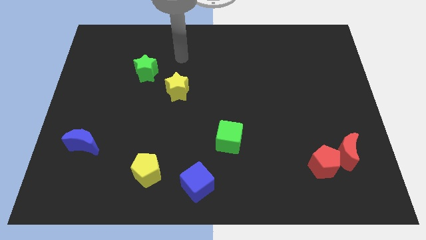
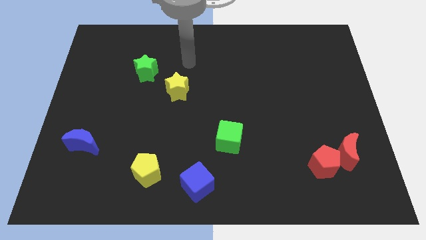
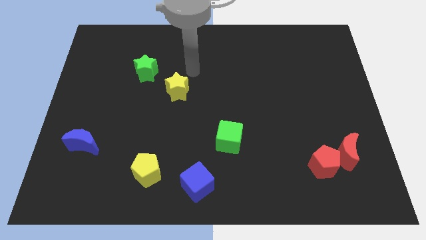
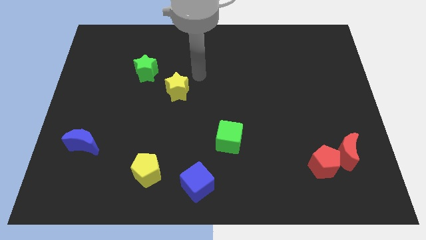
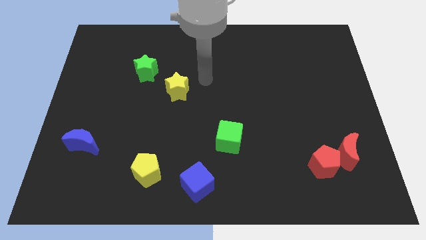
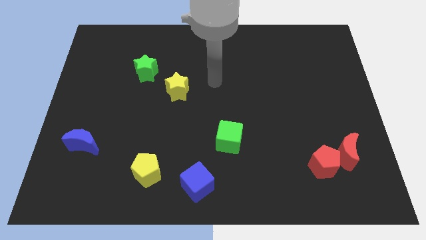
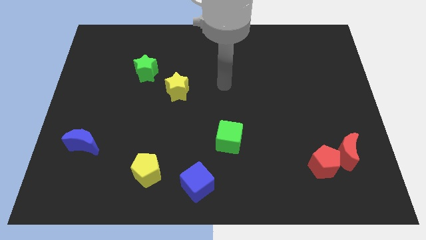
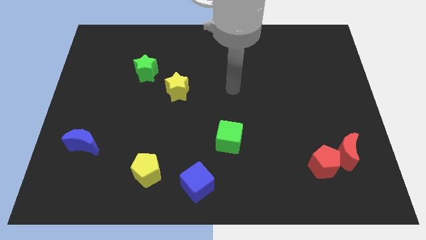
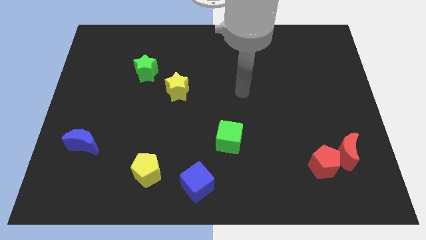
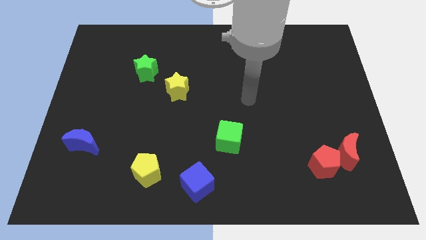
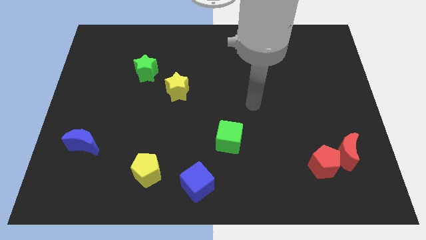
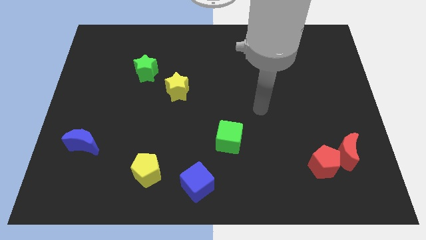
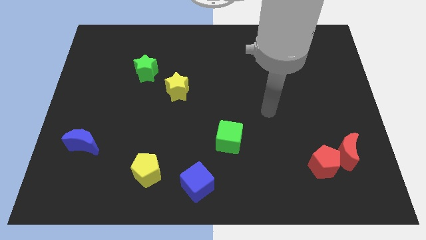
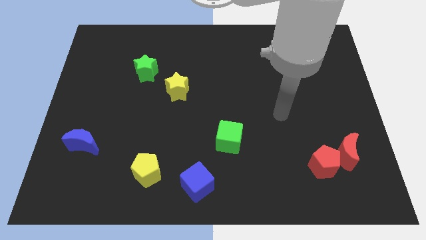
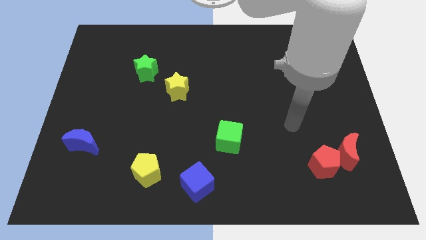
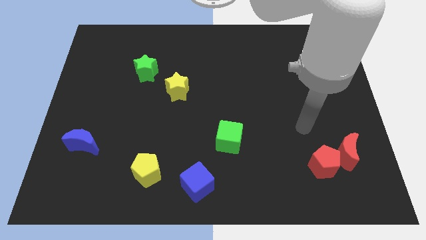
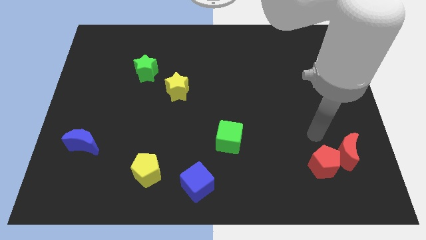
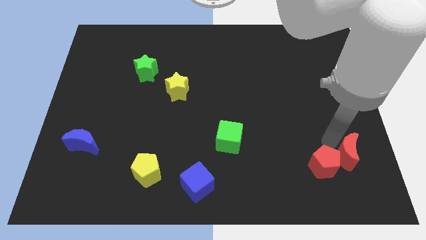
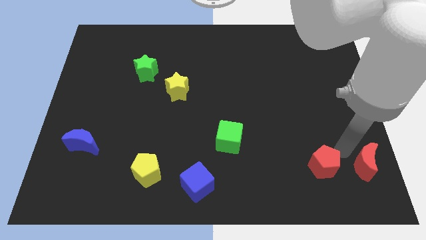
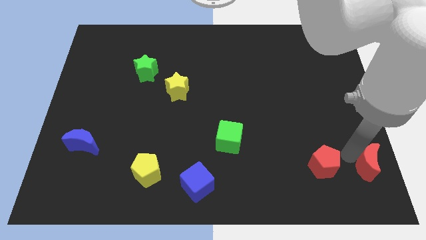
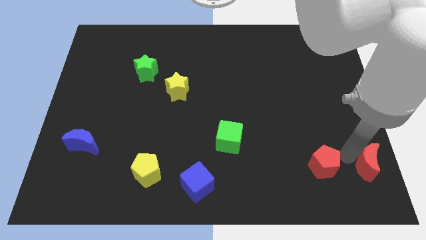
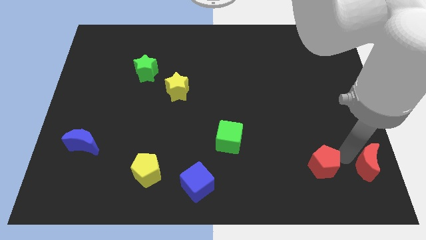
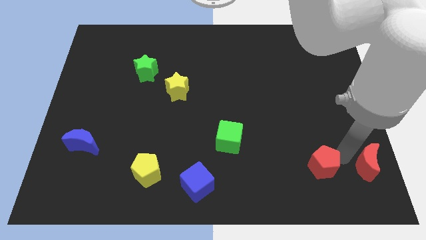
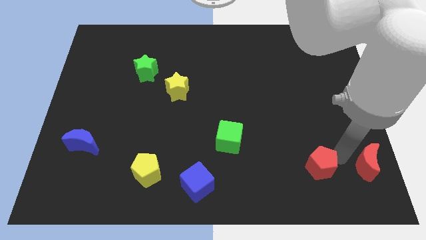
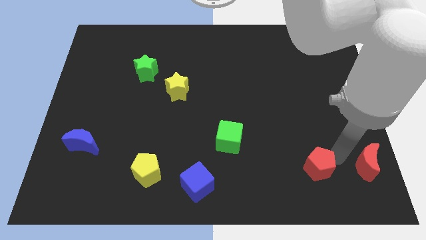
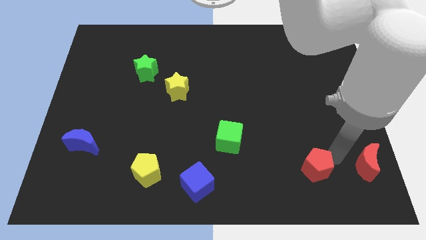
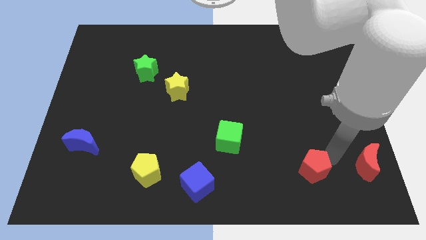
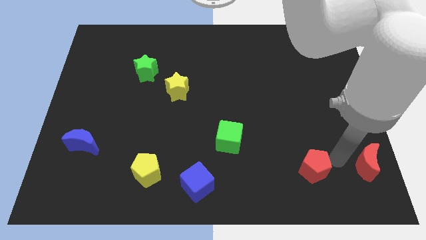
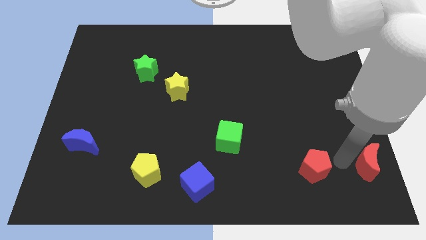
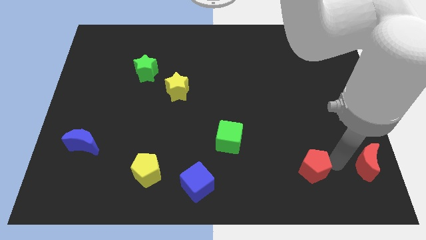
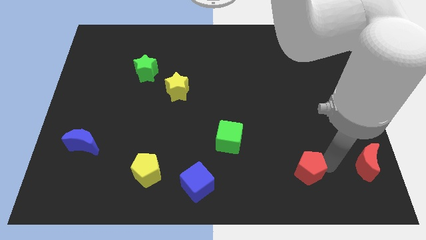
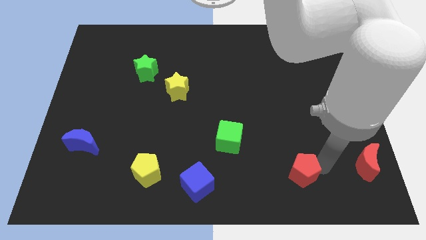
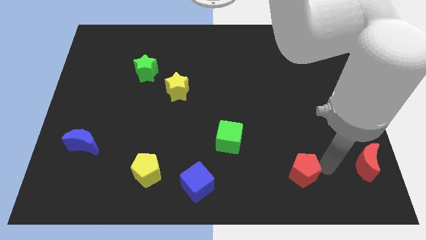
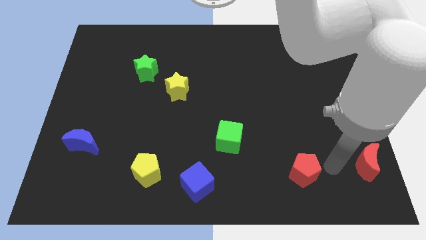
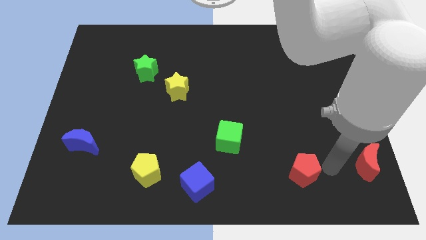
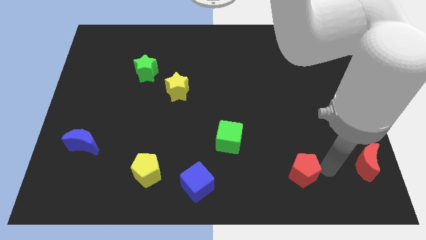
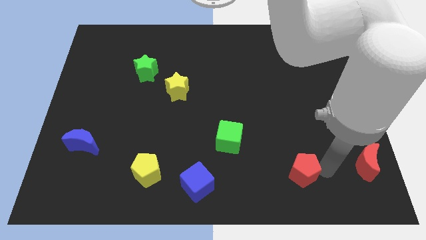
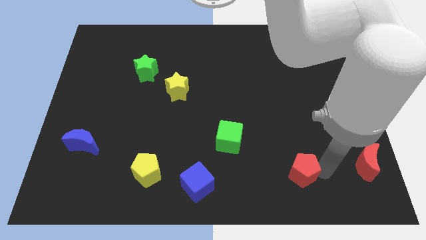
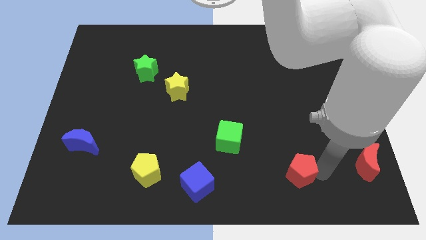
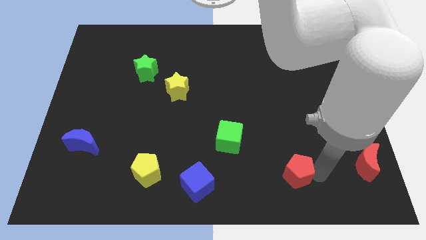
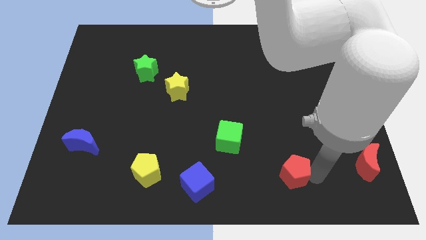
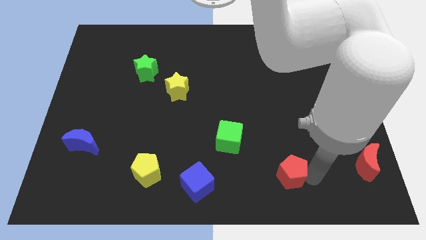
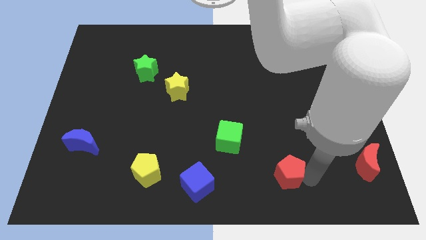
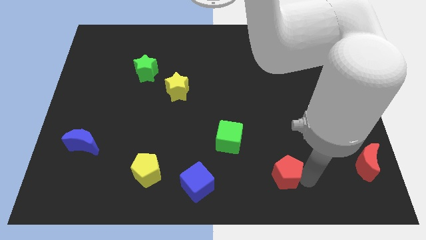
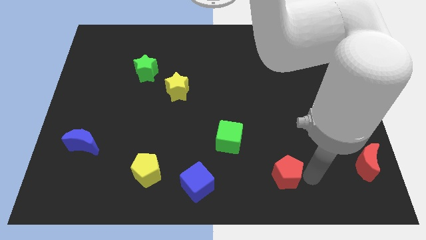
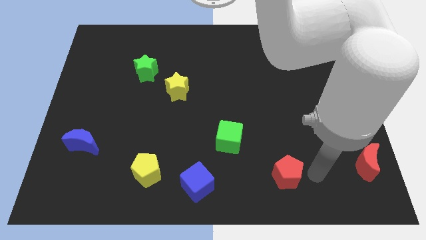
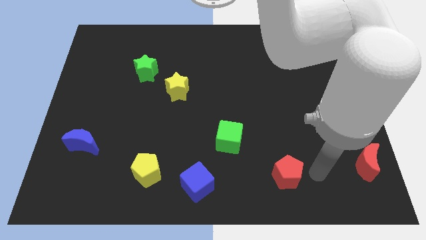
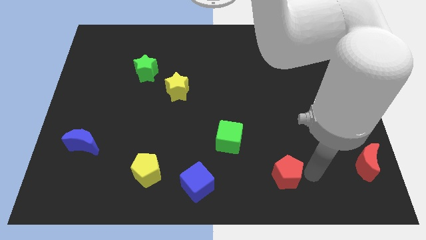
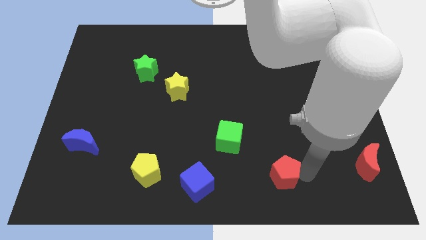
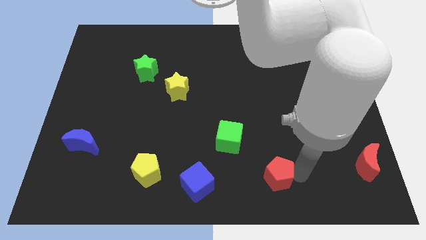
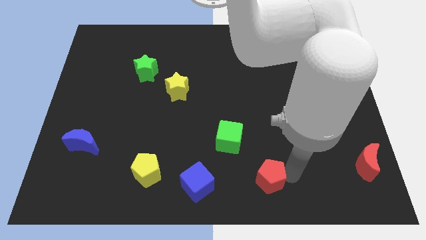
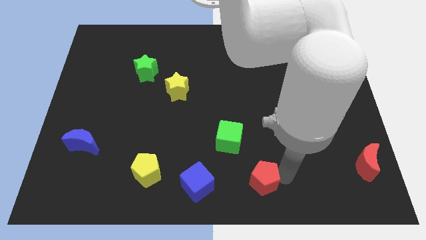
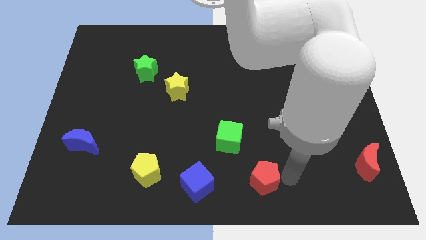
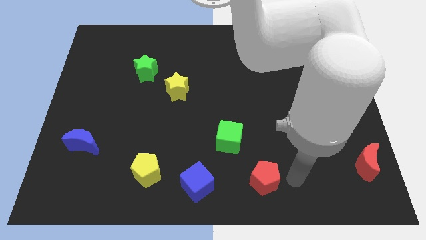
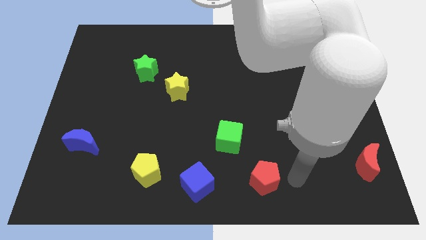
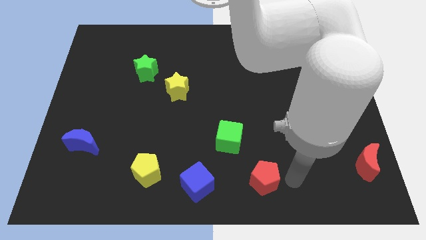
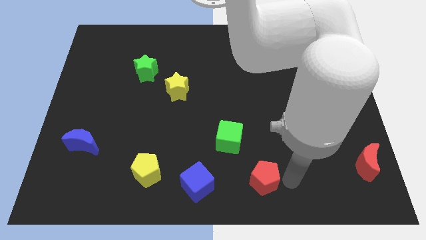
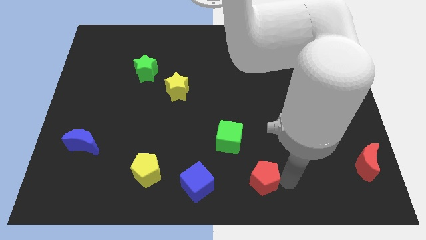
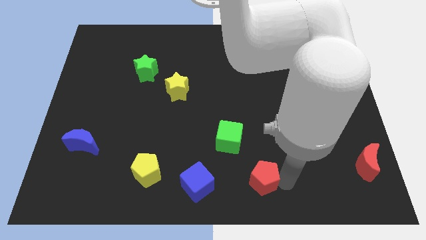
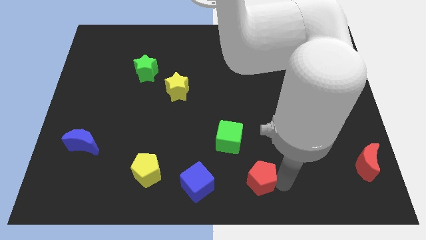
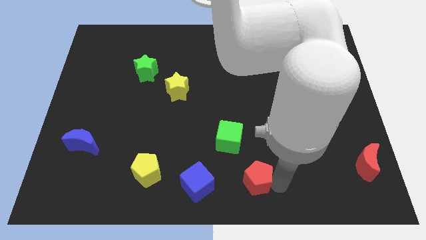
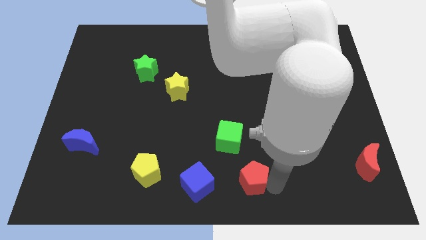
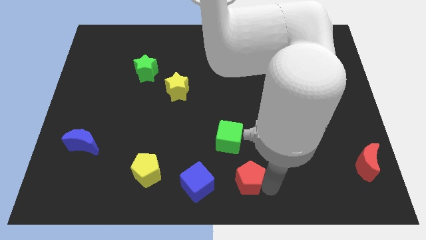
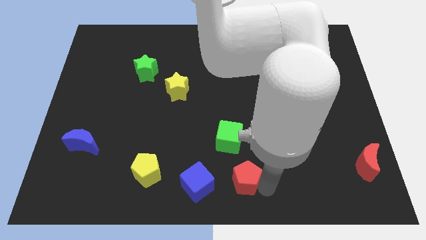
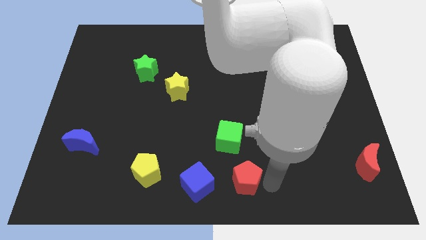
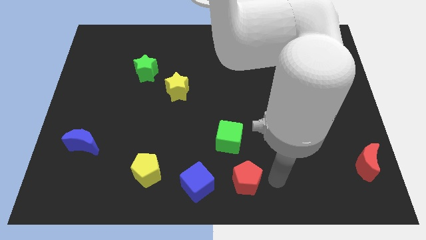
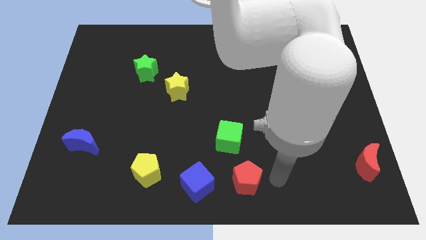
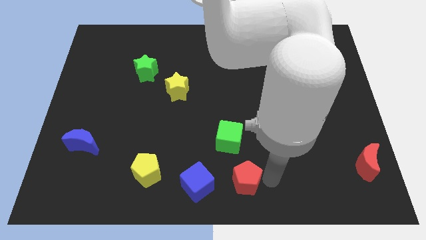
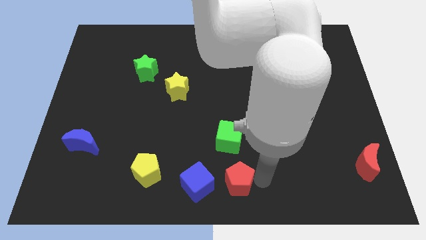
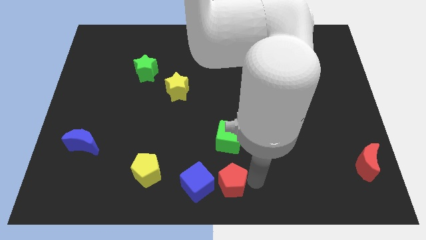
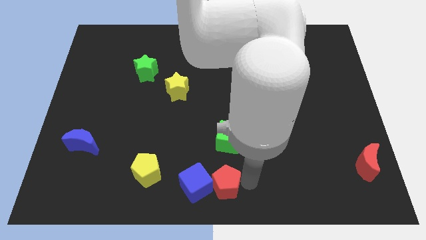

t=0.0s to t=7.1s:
slide the red pentagon towards the blue cube
